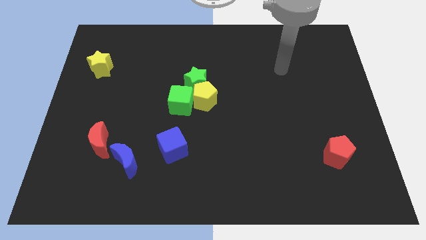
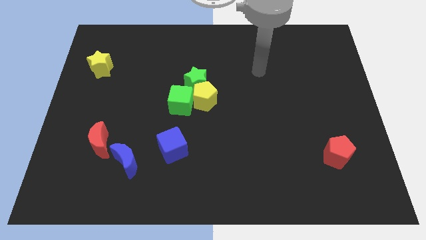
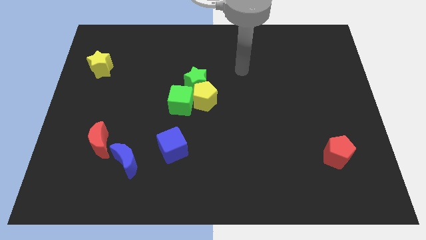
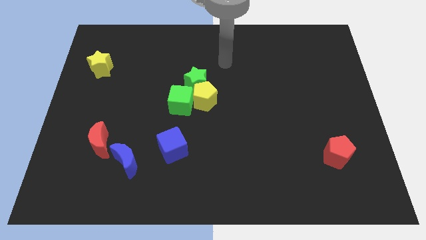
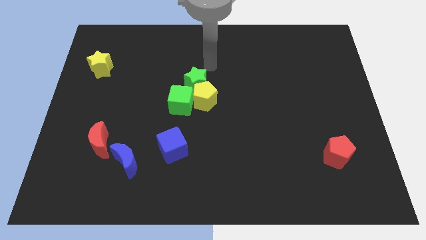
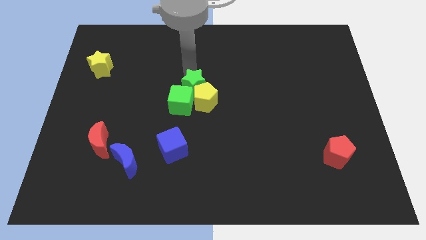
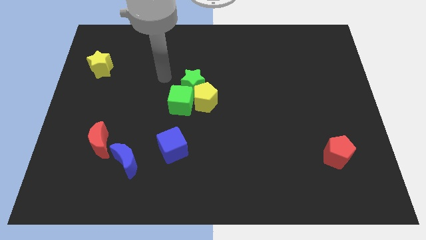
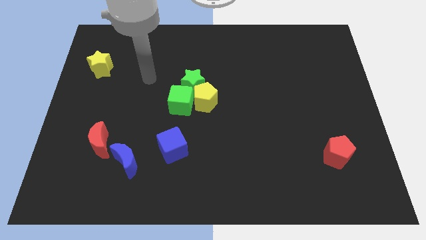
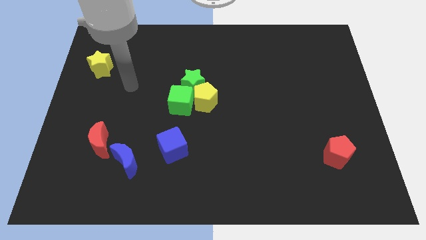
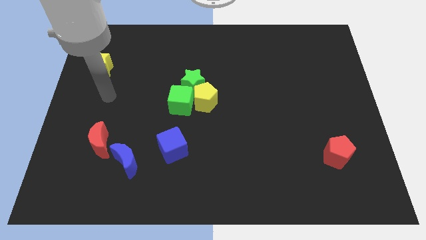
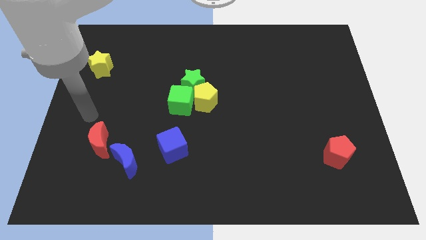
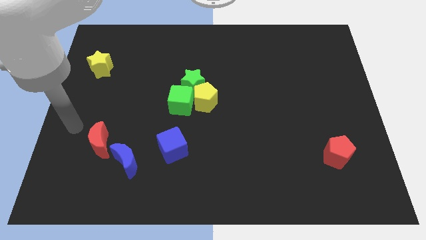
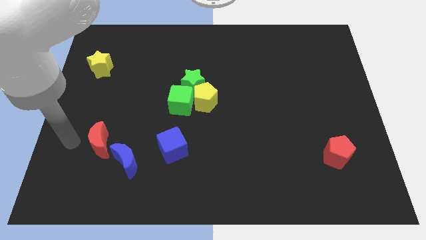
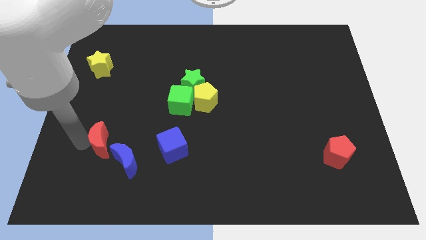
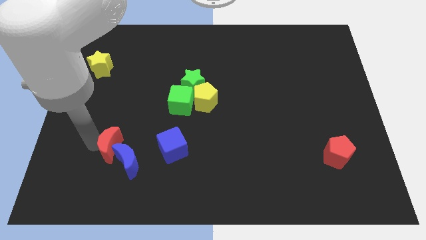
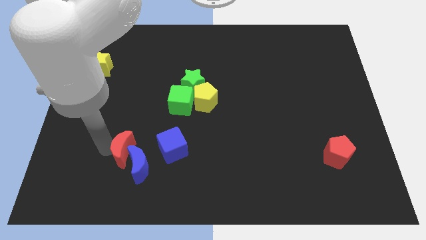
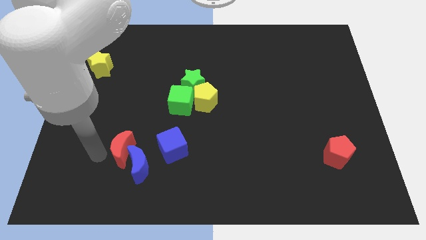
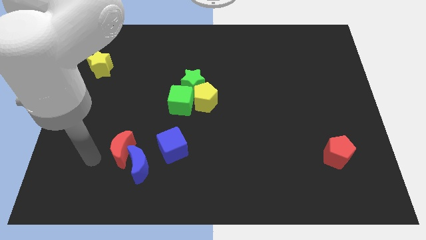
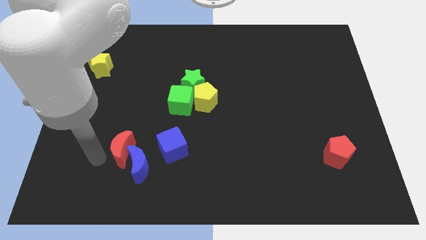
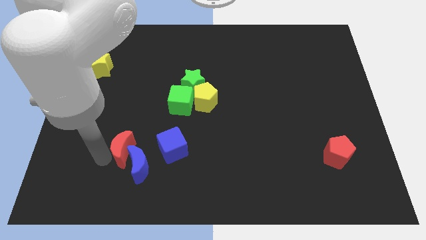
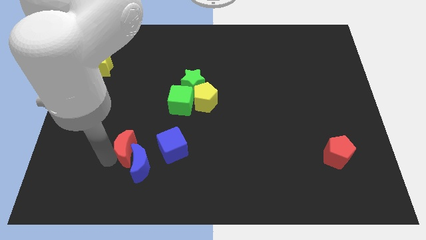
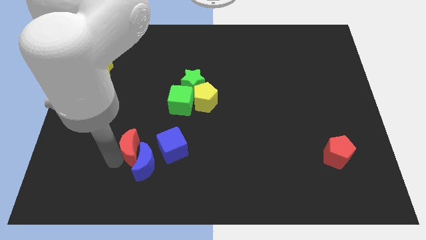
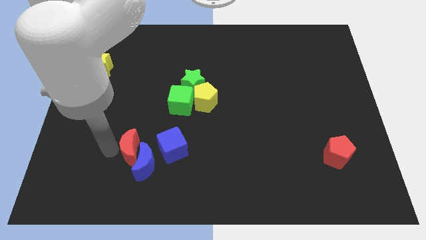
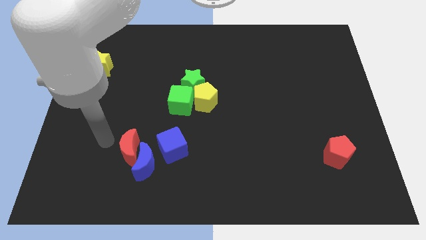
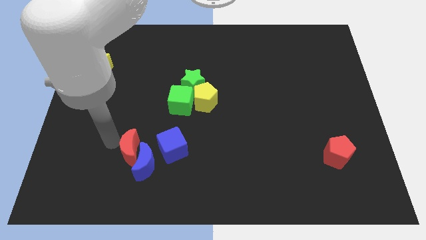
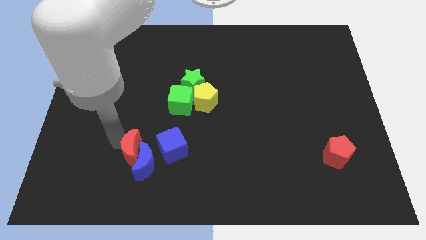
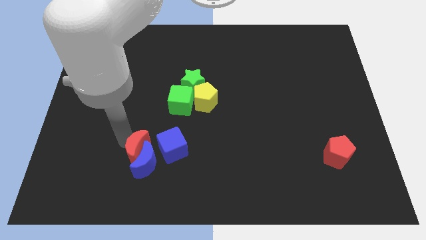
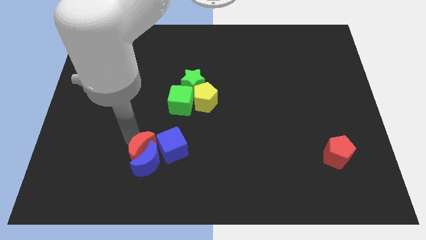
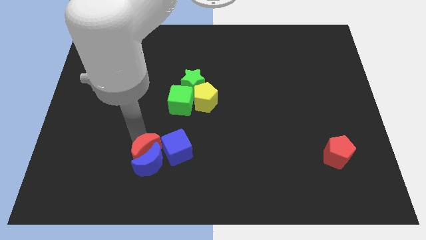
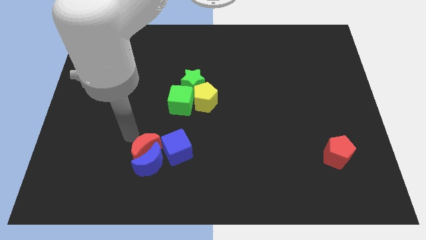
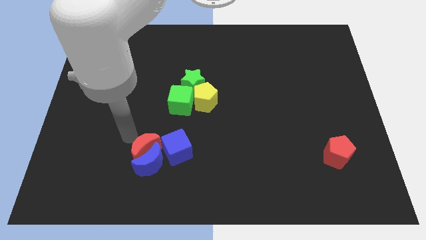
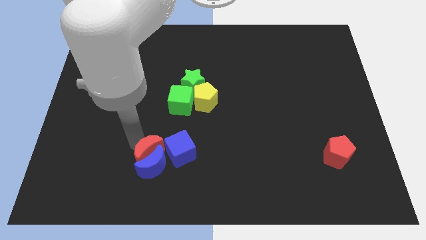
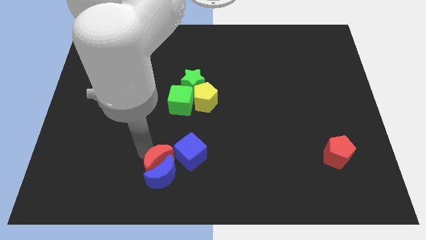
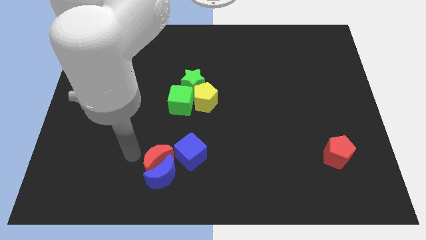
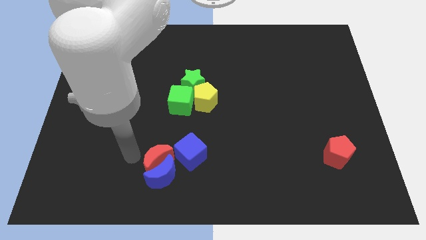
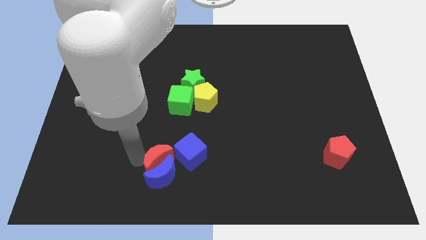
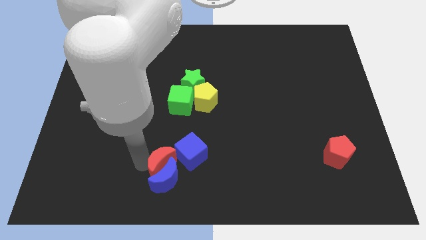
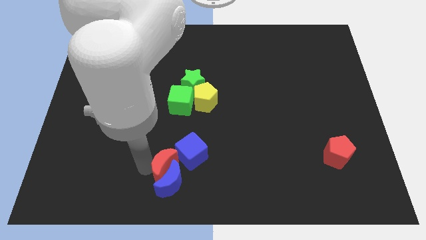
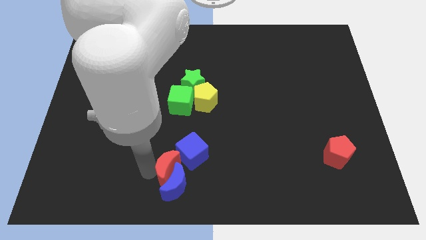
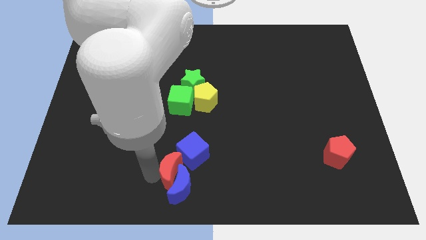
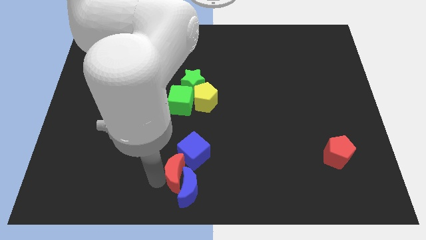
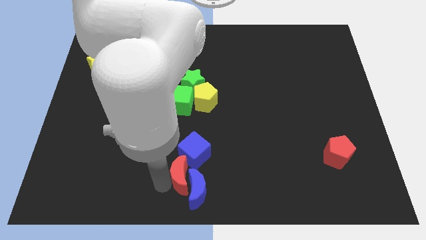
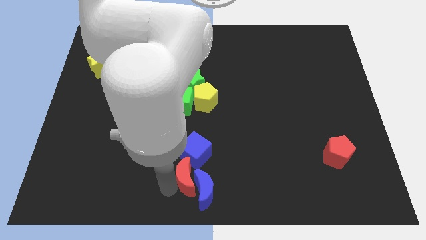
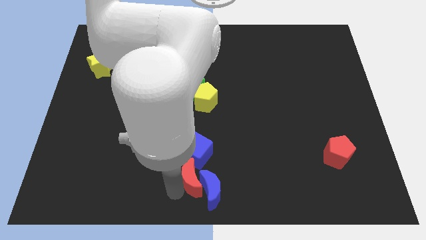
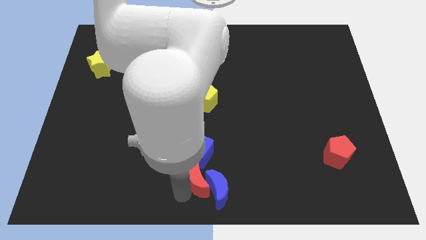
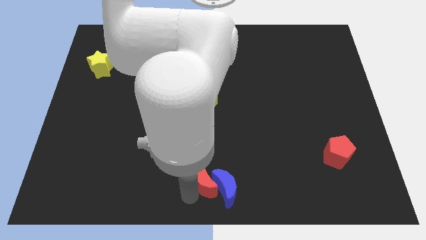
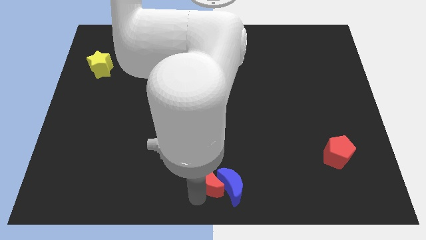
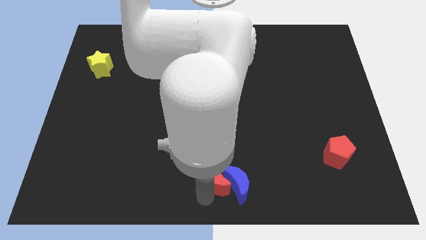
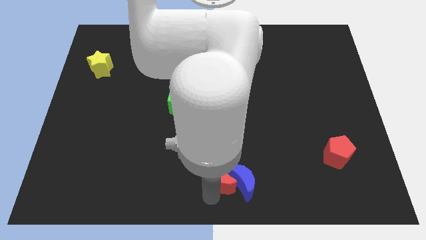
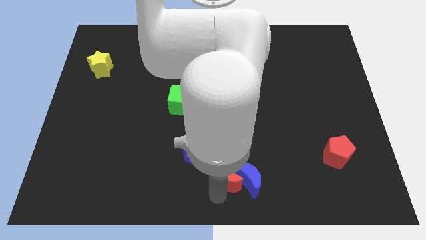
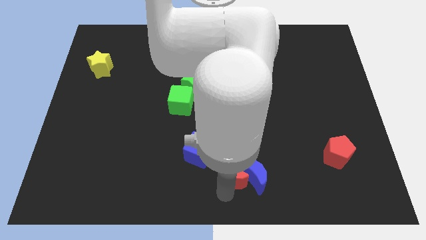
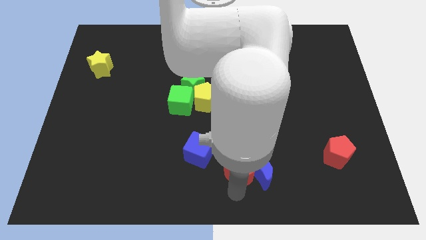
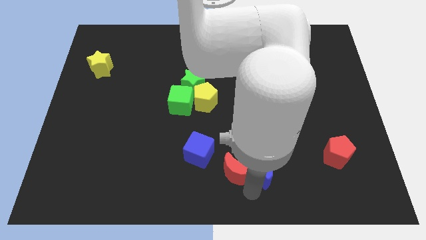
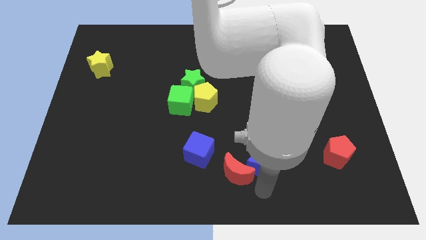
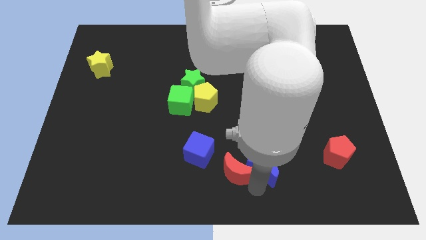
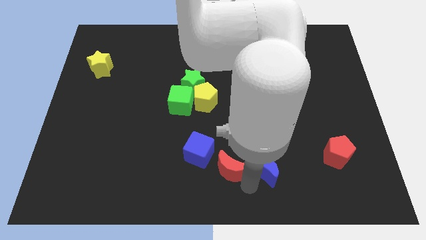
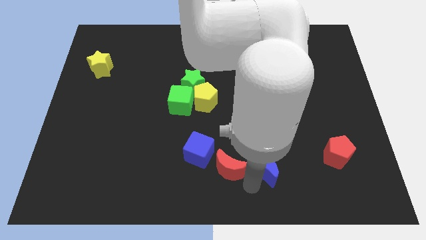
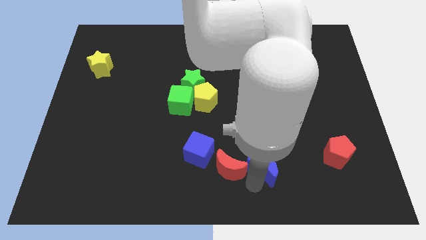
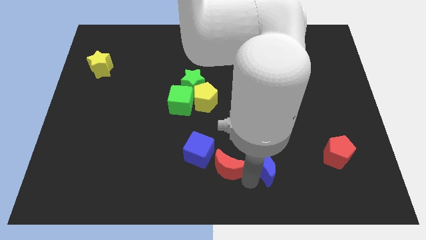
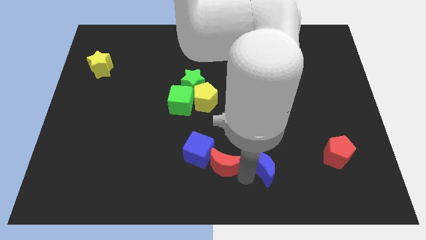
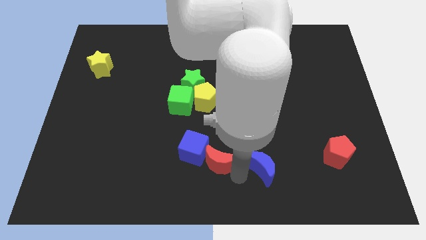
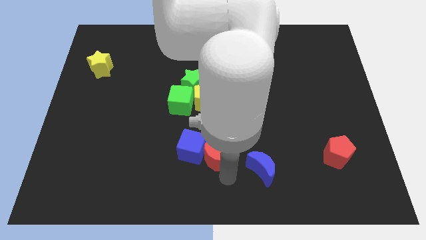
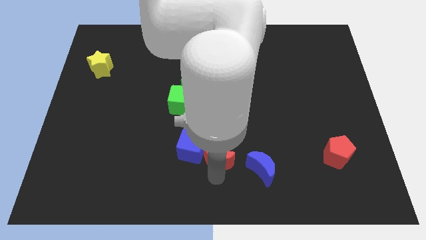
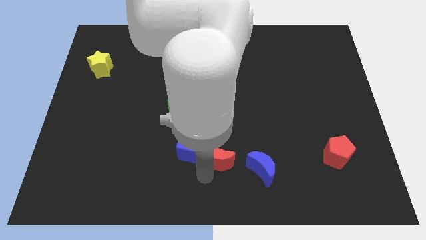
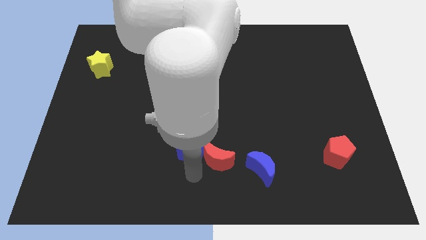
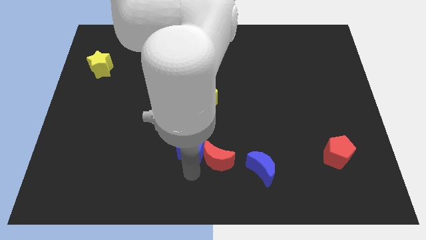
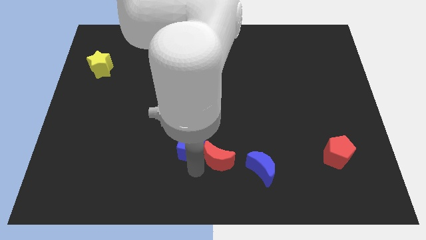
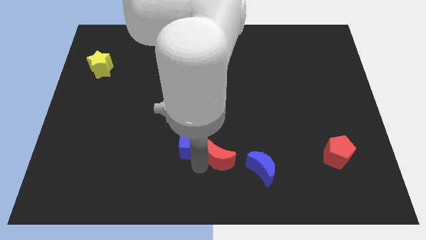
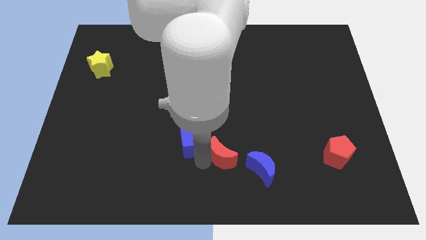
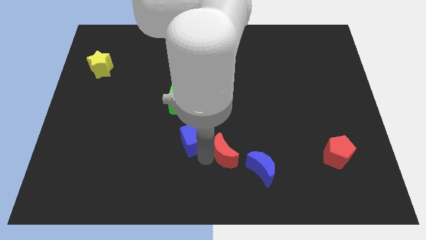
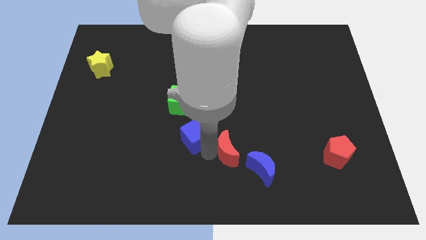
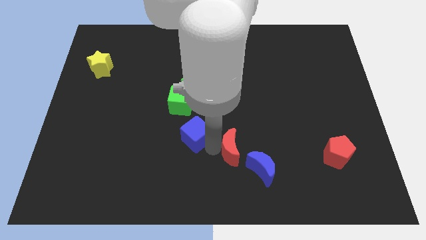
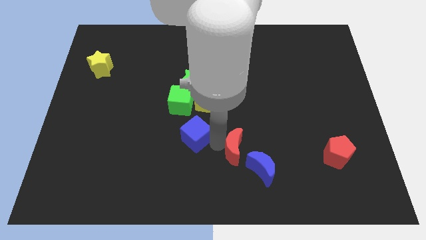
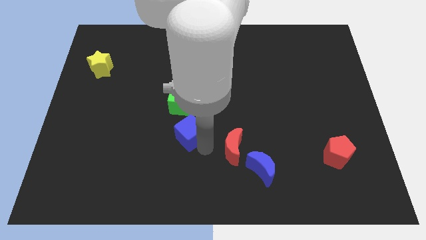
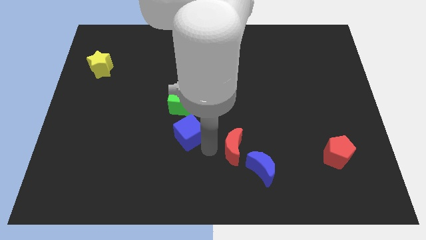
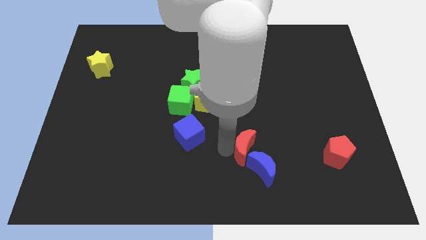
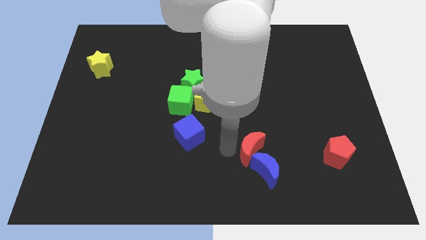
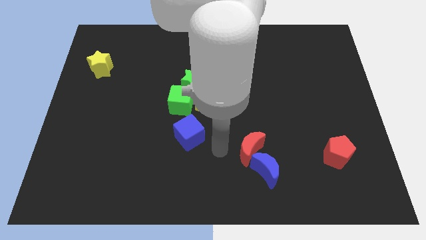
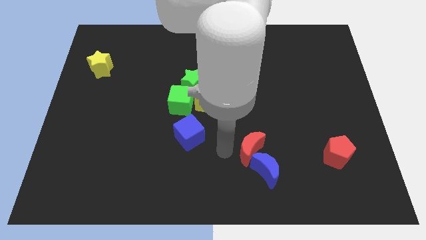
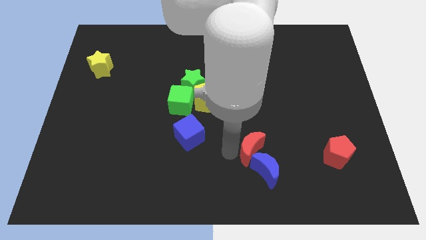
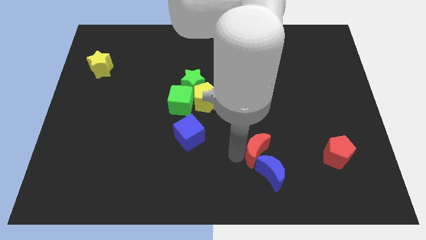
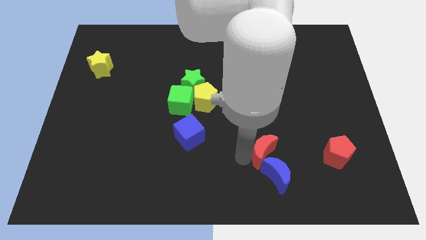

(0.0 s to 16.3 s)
move the red moon just left of the red pentagon
